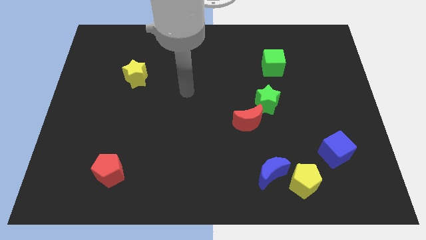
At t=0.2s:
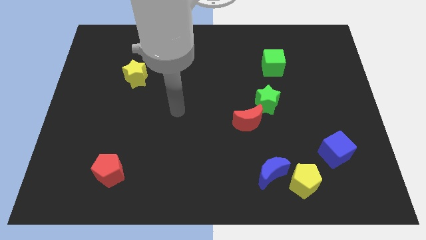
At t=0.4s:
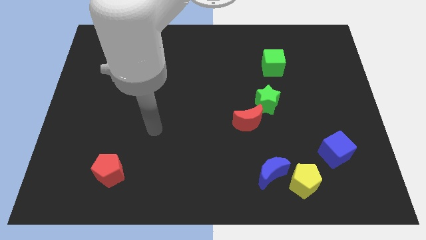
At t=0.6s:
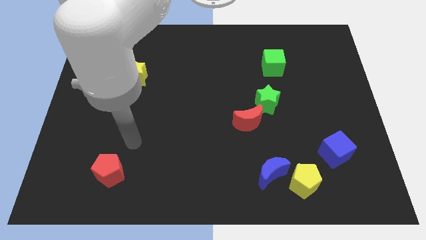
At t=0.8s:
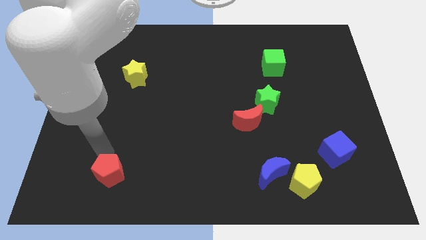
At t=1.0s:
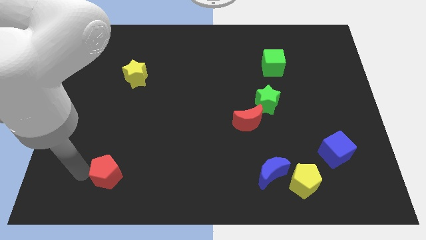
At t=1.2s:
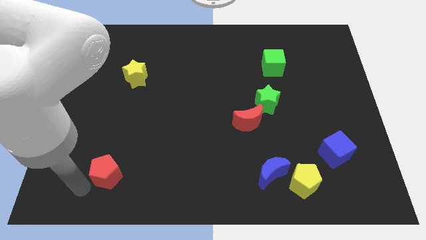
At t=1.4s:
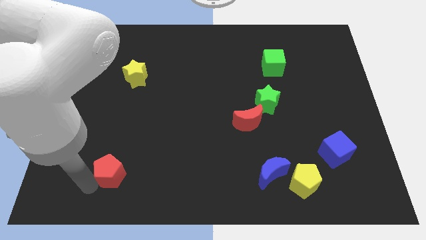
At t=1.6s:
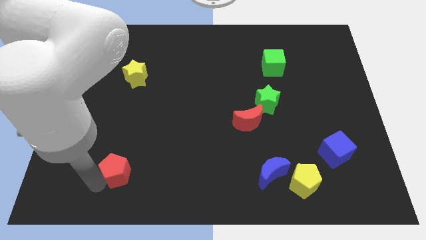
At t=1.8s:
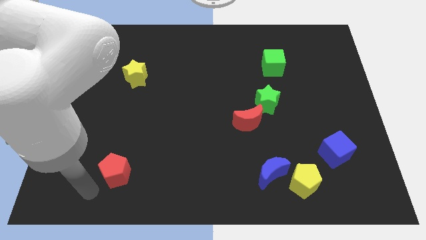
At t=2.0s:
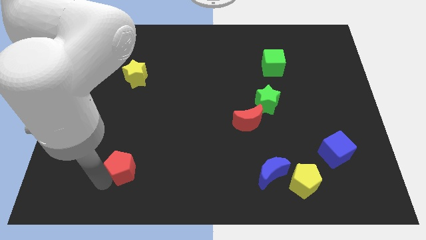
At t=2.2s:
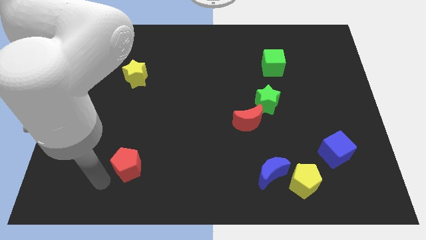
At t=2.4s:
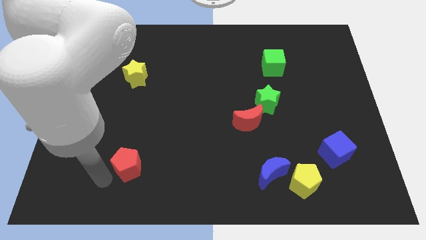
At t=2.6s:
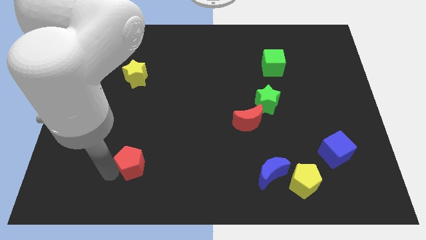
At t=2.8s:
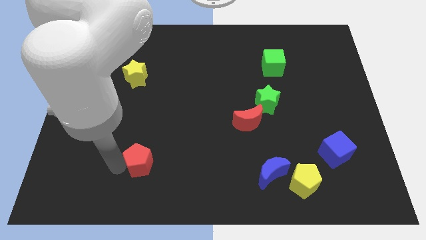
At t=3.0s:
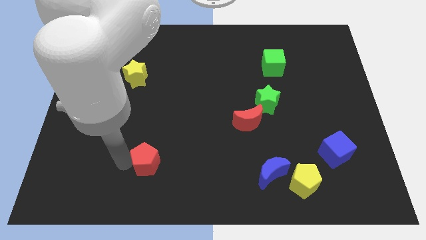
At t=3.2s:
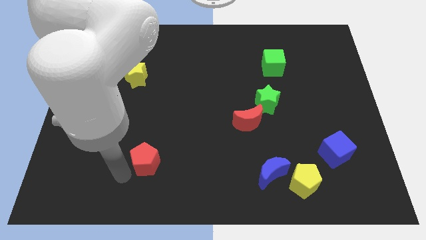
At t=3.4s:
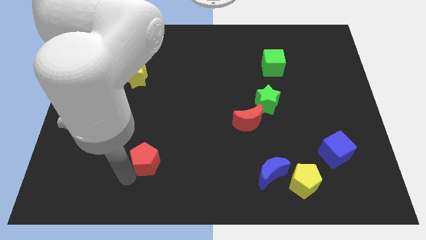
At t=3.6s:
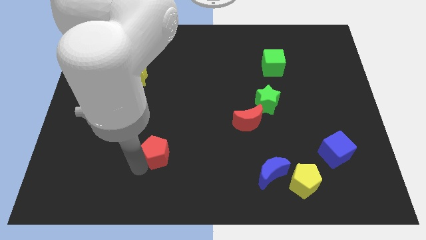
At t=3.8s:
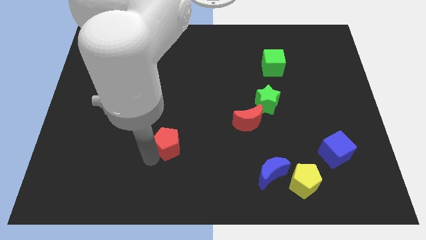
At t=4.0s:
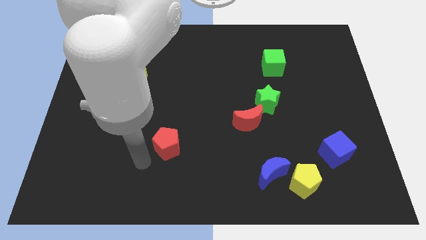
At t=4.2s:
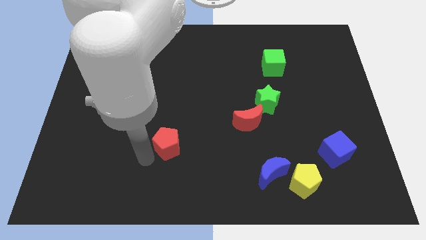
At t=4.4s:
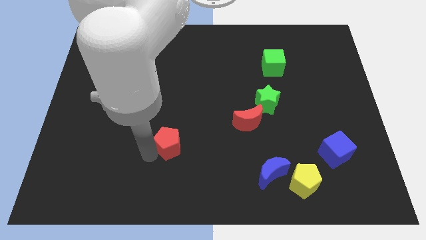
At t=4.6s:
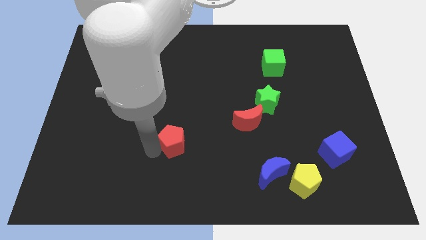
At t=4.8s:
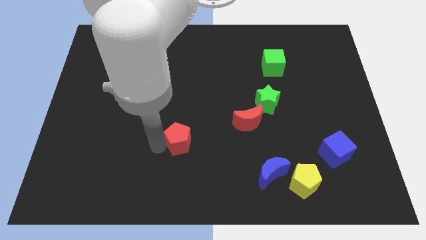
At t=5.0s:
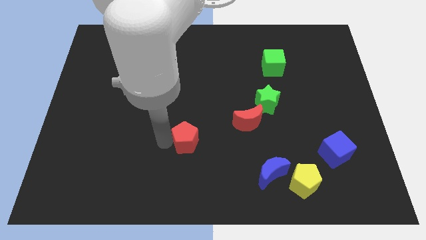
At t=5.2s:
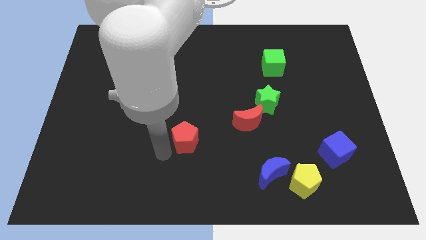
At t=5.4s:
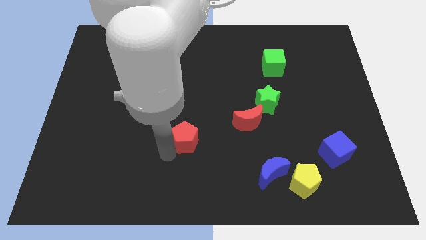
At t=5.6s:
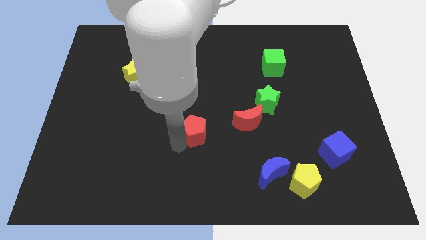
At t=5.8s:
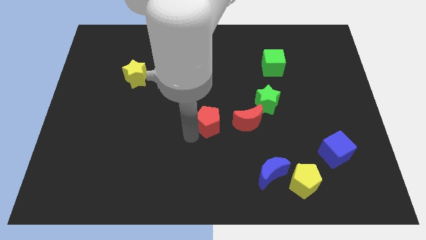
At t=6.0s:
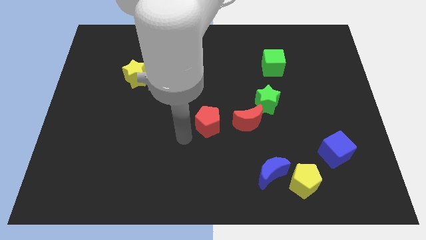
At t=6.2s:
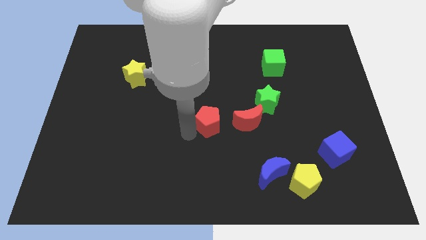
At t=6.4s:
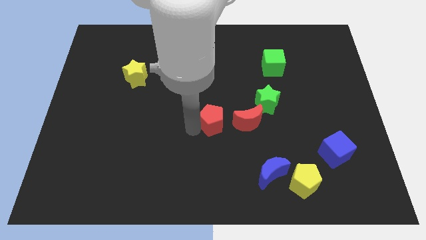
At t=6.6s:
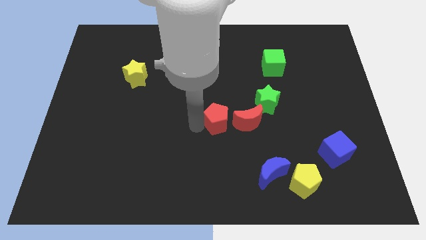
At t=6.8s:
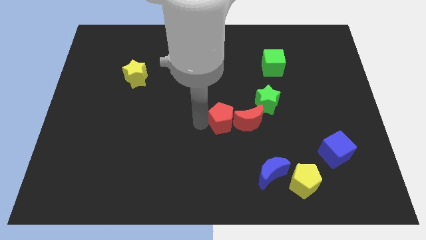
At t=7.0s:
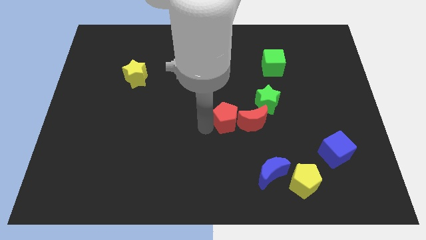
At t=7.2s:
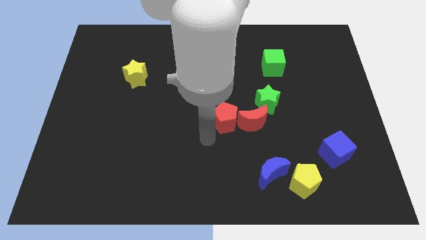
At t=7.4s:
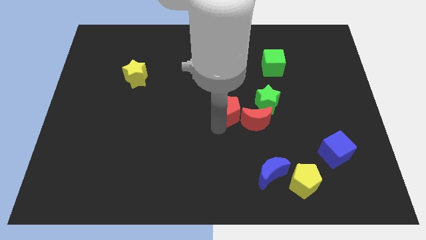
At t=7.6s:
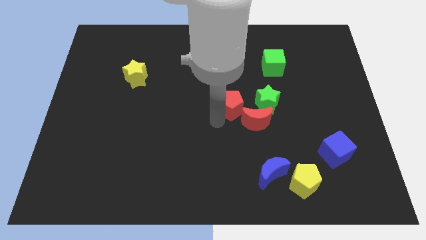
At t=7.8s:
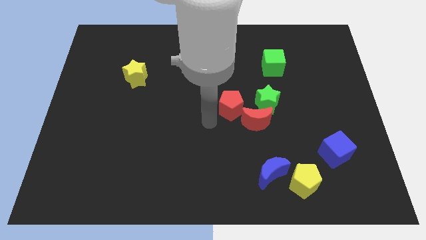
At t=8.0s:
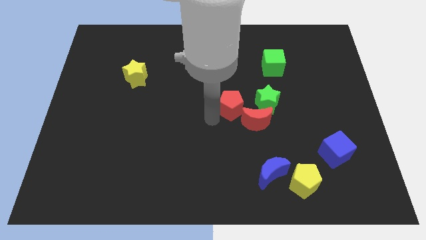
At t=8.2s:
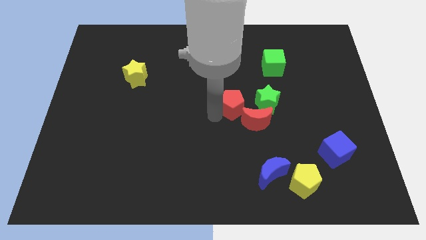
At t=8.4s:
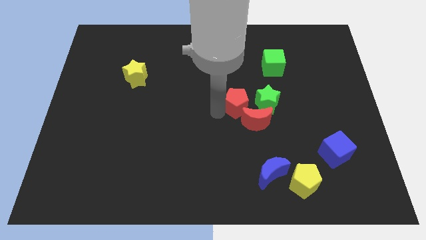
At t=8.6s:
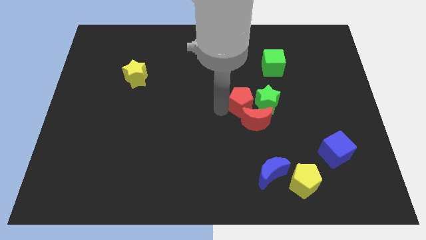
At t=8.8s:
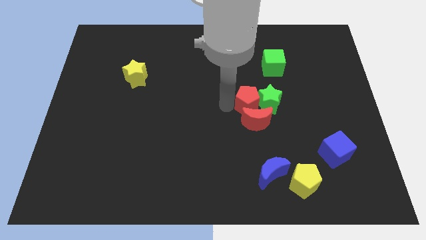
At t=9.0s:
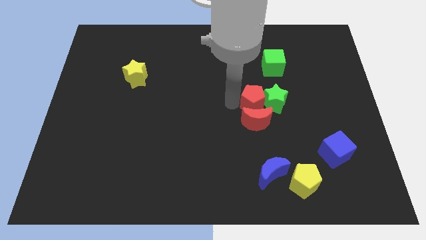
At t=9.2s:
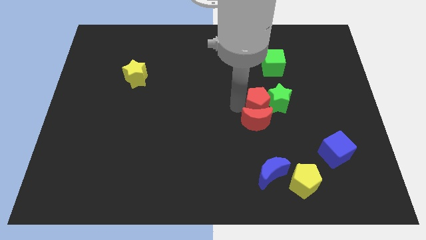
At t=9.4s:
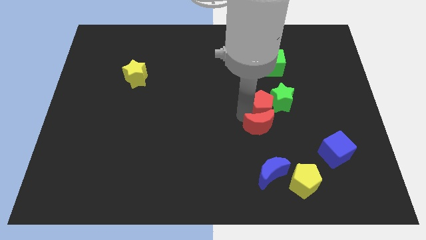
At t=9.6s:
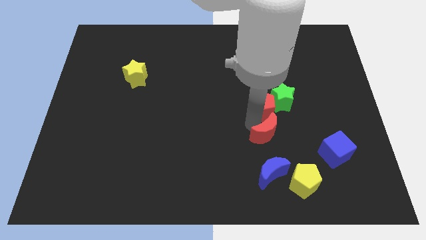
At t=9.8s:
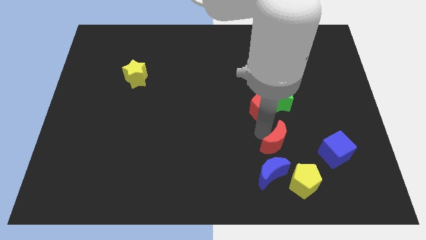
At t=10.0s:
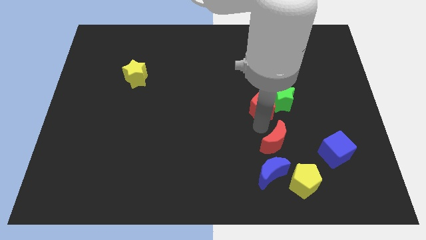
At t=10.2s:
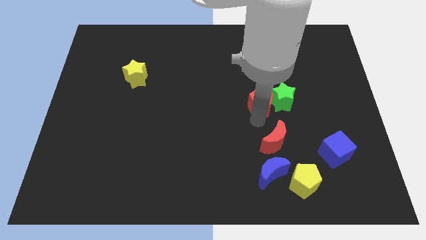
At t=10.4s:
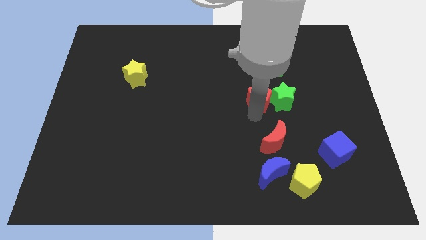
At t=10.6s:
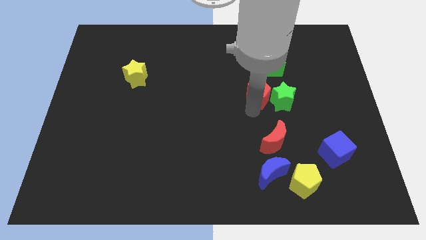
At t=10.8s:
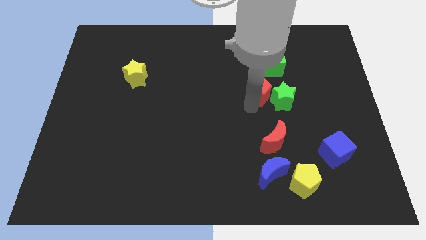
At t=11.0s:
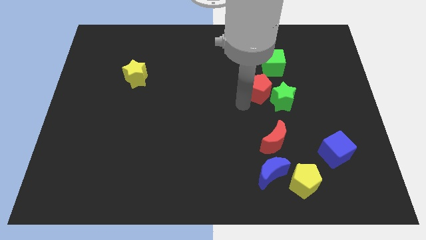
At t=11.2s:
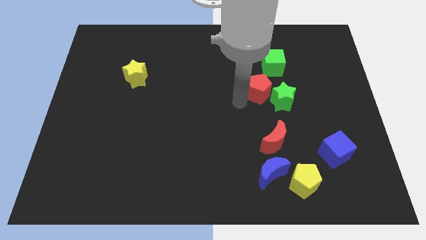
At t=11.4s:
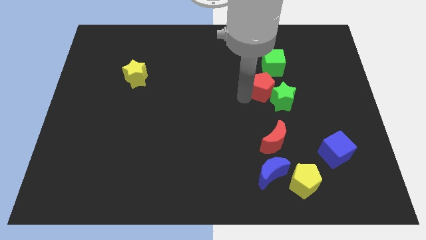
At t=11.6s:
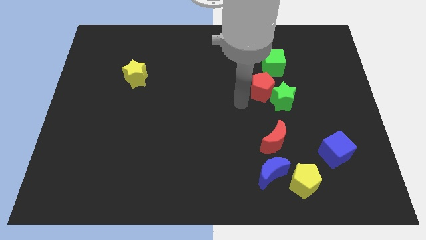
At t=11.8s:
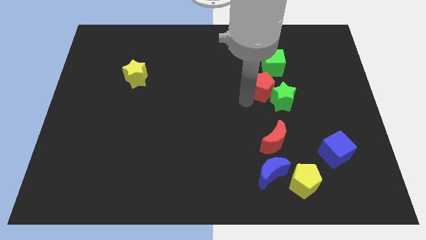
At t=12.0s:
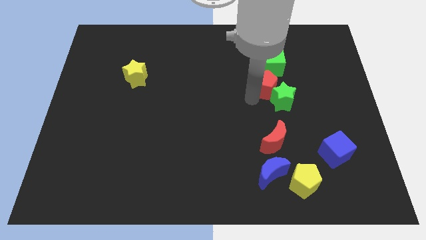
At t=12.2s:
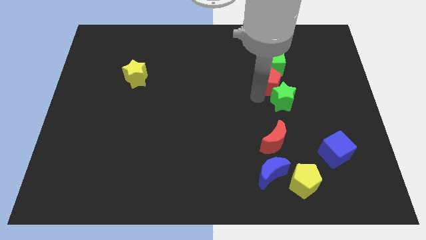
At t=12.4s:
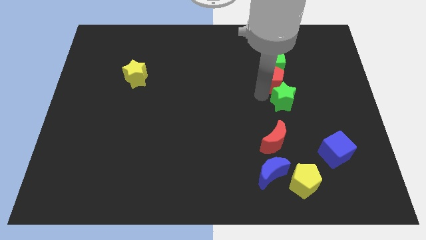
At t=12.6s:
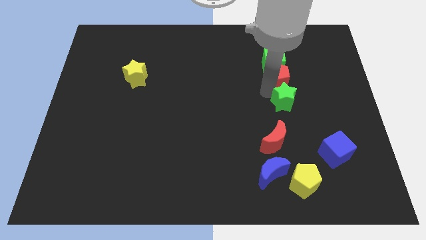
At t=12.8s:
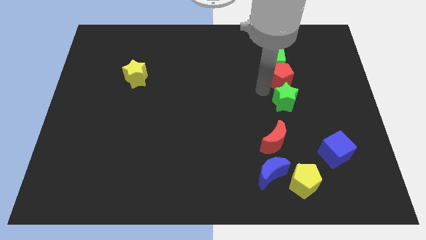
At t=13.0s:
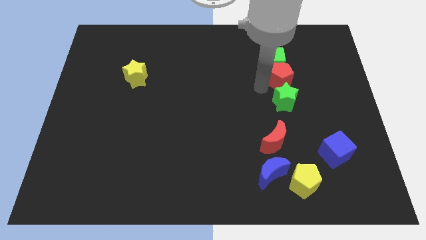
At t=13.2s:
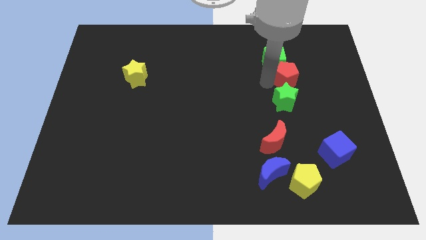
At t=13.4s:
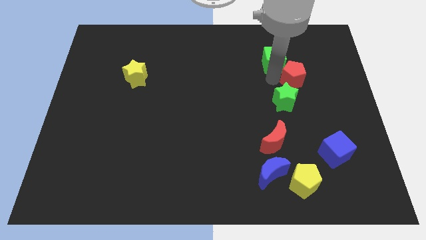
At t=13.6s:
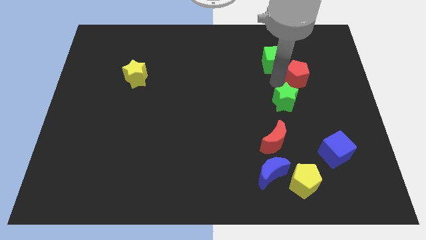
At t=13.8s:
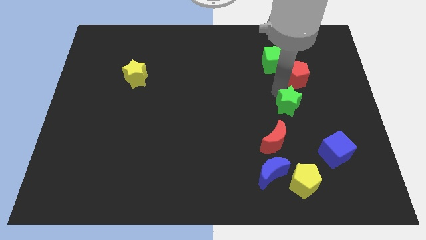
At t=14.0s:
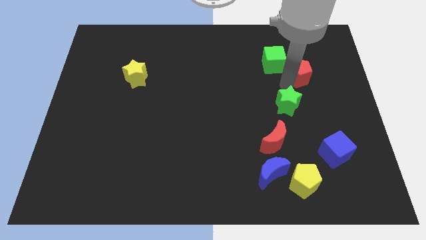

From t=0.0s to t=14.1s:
move the red pentagon right of the green cube

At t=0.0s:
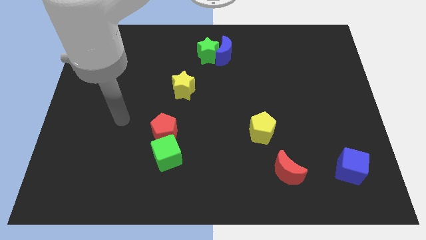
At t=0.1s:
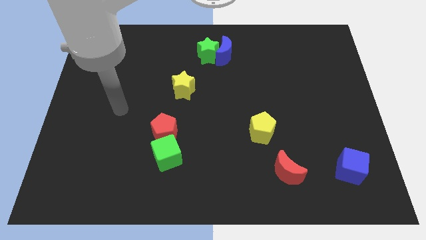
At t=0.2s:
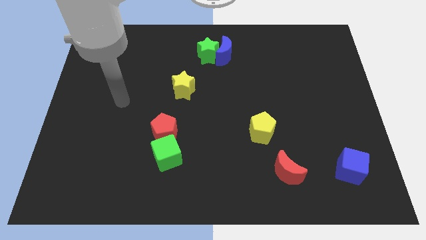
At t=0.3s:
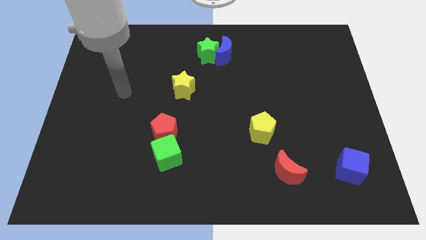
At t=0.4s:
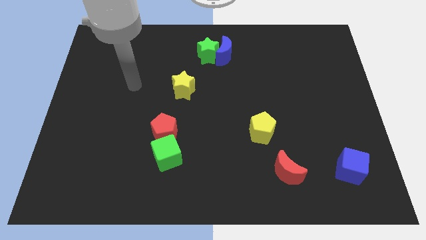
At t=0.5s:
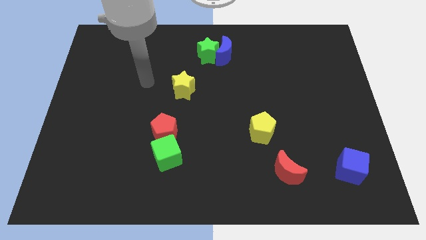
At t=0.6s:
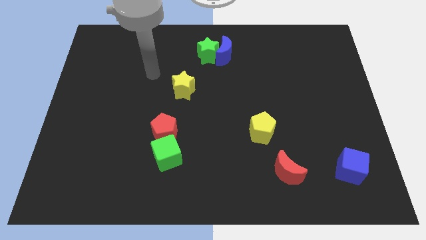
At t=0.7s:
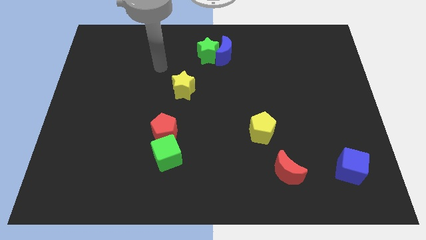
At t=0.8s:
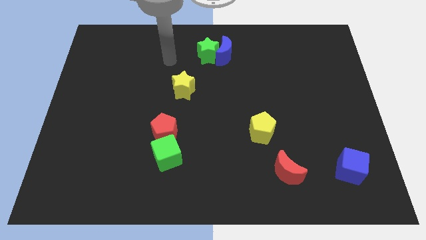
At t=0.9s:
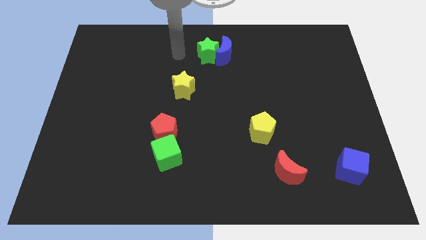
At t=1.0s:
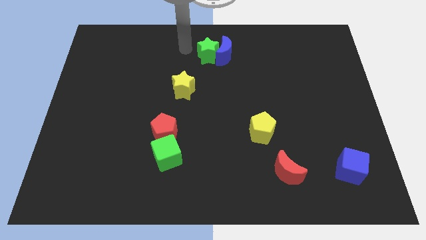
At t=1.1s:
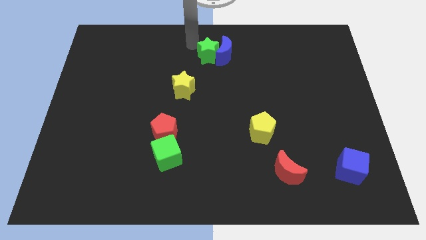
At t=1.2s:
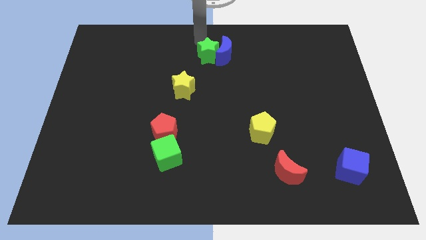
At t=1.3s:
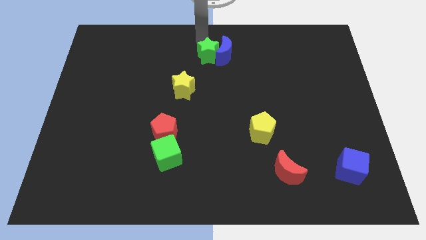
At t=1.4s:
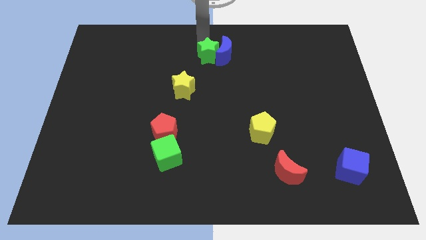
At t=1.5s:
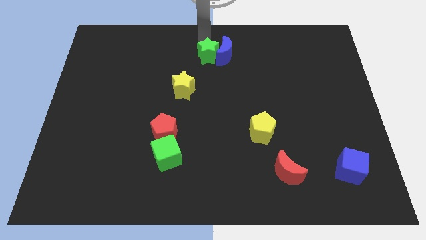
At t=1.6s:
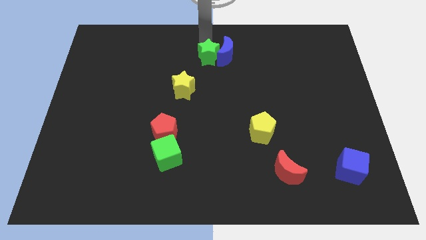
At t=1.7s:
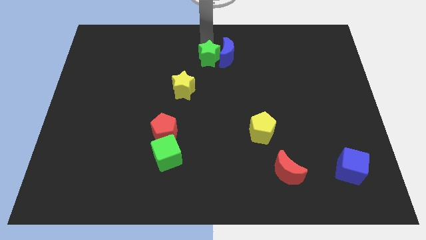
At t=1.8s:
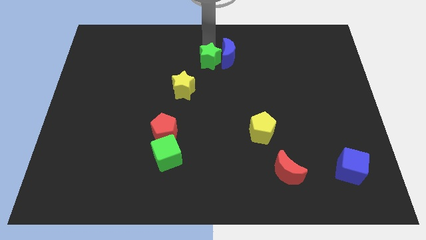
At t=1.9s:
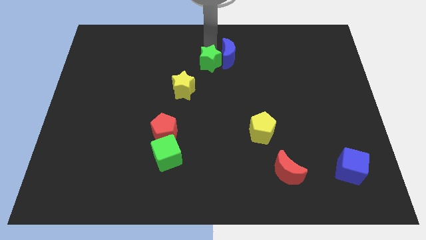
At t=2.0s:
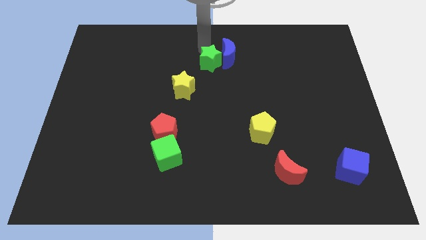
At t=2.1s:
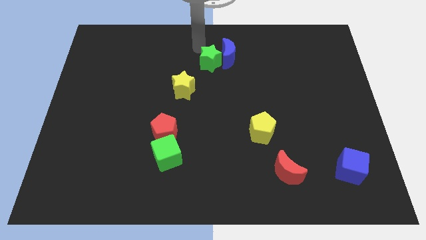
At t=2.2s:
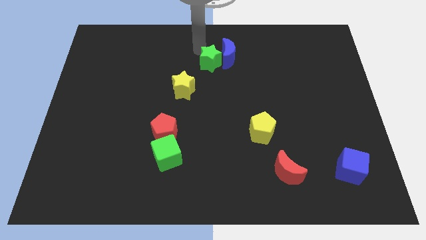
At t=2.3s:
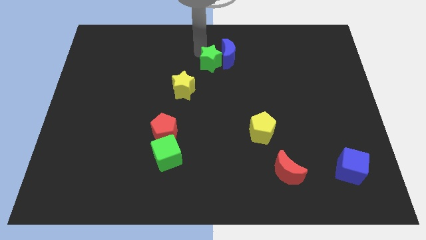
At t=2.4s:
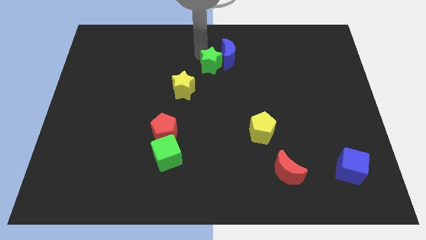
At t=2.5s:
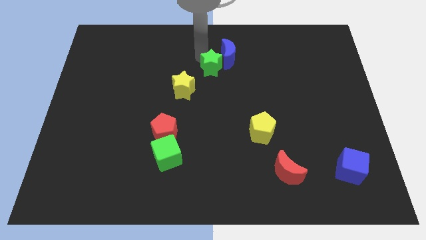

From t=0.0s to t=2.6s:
push the green star to the bottom of the blue moon
